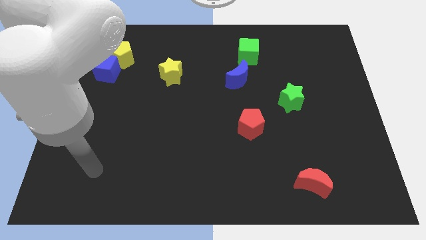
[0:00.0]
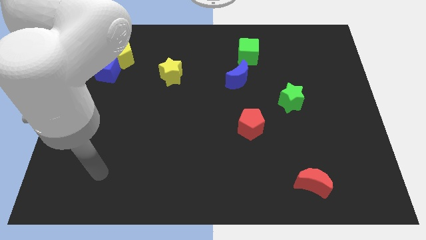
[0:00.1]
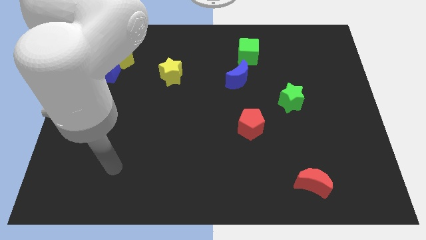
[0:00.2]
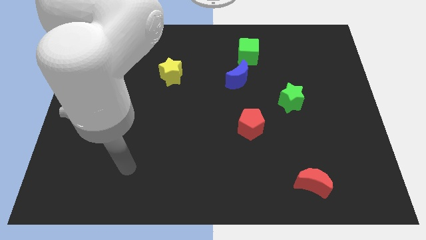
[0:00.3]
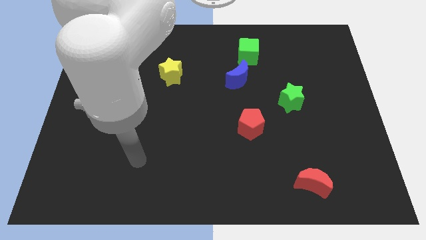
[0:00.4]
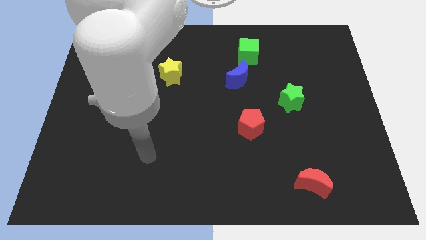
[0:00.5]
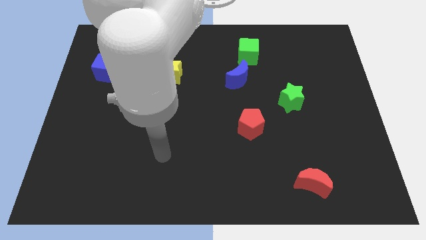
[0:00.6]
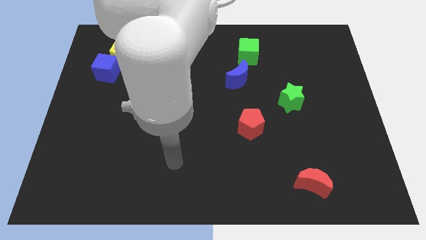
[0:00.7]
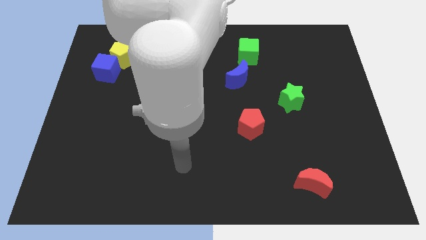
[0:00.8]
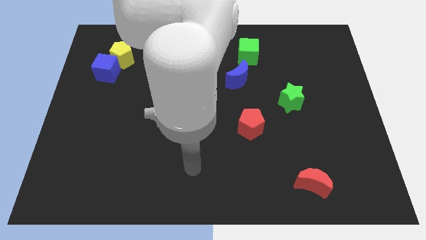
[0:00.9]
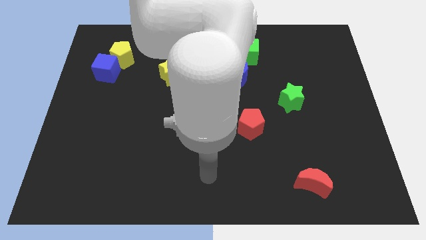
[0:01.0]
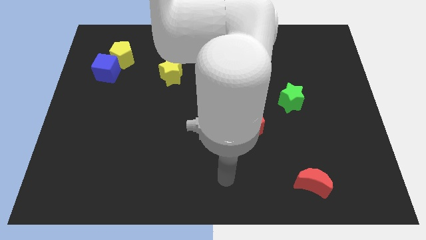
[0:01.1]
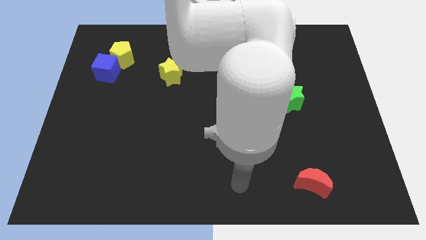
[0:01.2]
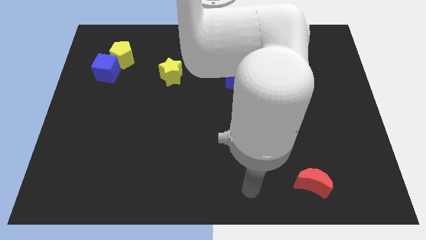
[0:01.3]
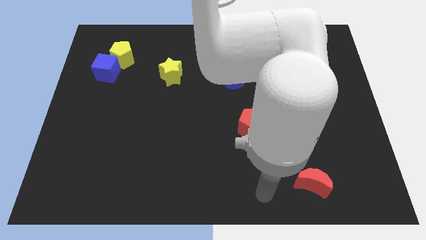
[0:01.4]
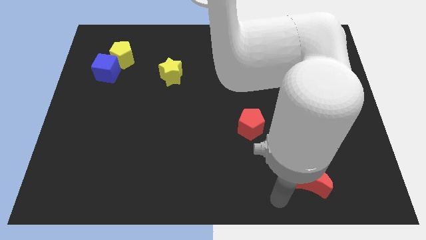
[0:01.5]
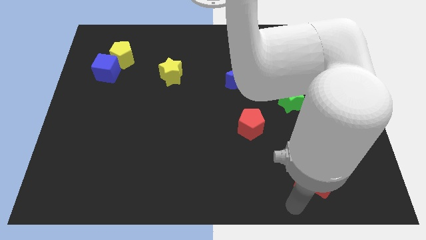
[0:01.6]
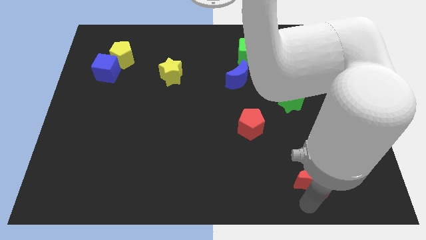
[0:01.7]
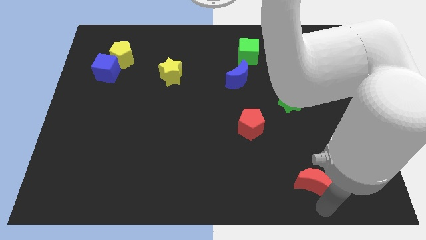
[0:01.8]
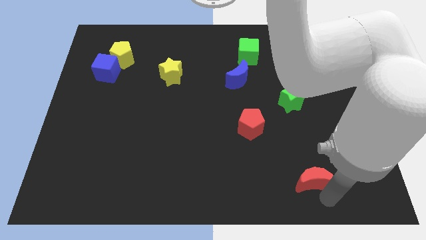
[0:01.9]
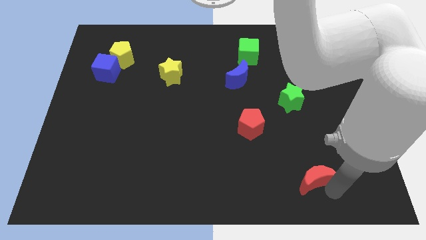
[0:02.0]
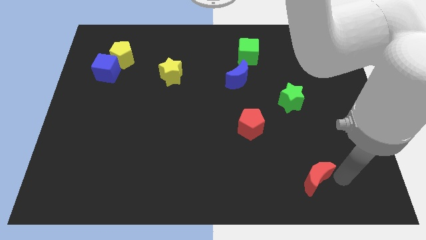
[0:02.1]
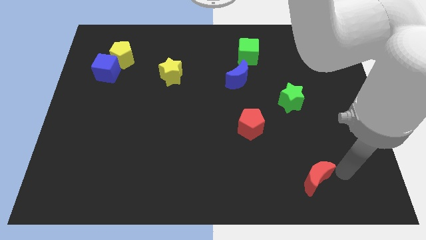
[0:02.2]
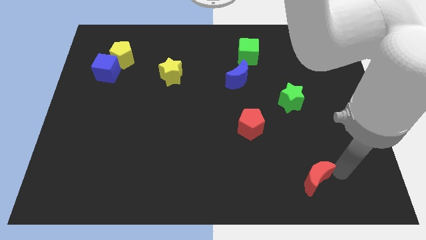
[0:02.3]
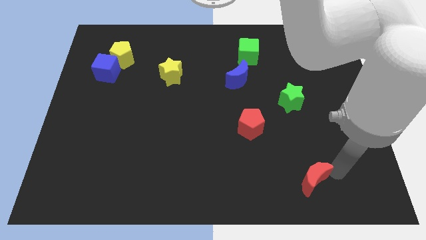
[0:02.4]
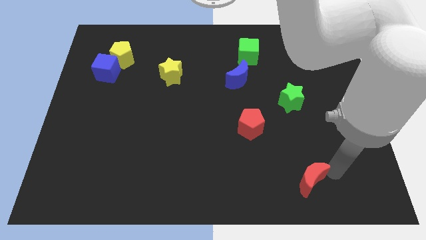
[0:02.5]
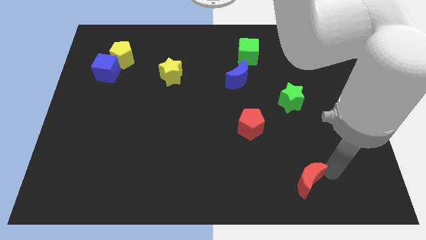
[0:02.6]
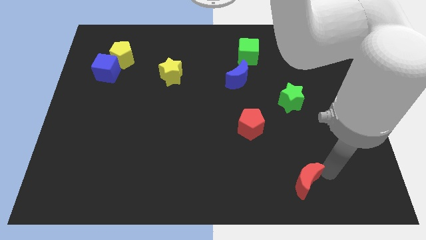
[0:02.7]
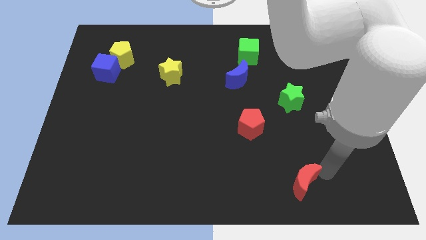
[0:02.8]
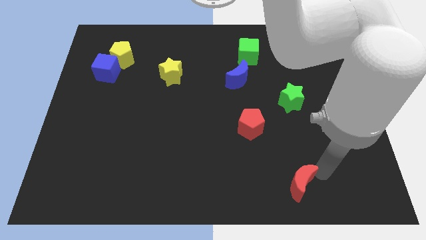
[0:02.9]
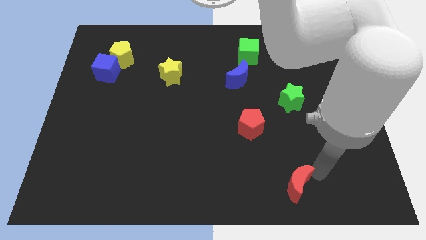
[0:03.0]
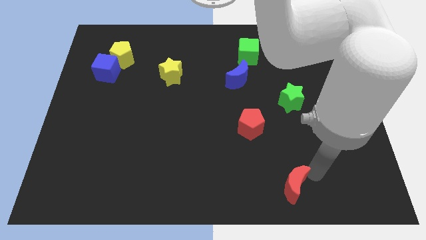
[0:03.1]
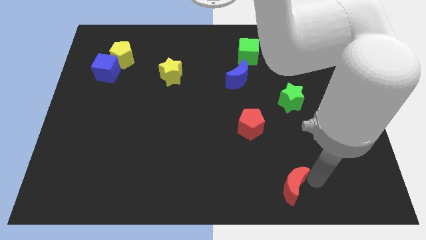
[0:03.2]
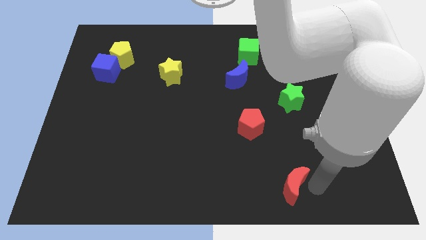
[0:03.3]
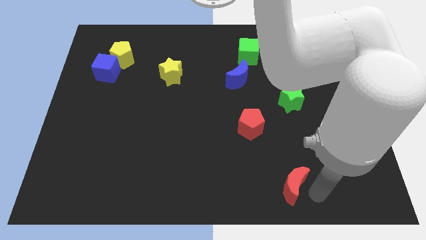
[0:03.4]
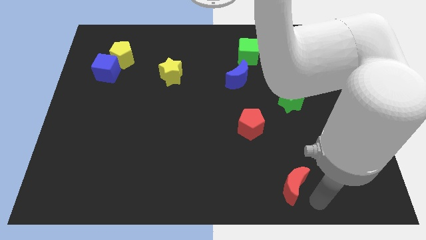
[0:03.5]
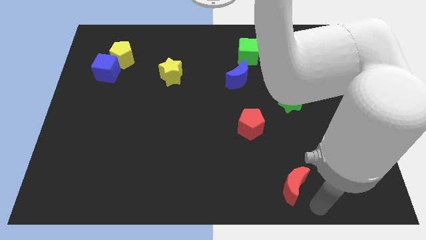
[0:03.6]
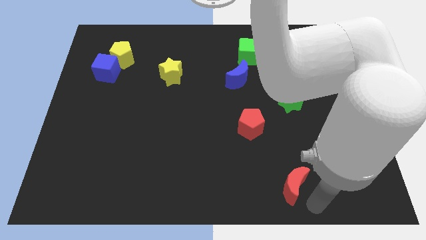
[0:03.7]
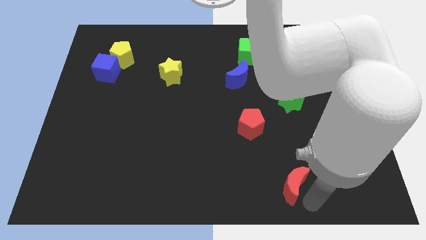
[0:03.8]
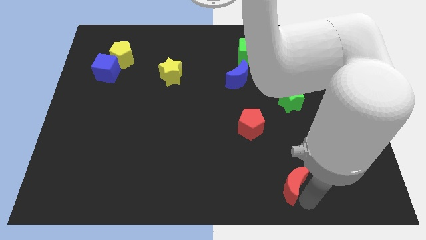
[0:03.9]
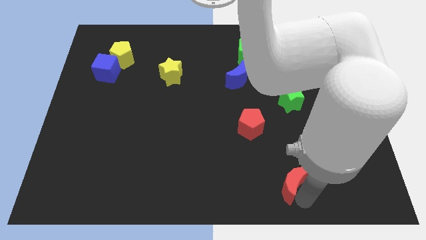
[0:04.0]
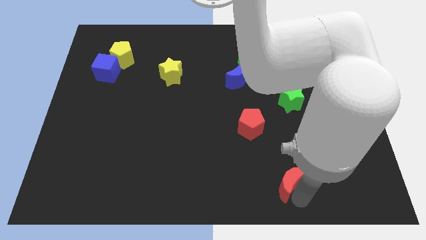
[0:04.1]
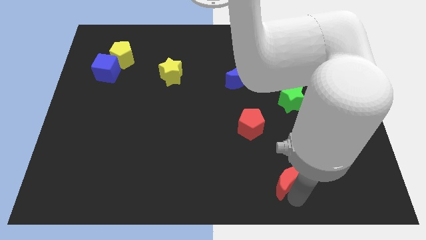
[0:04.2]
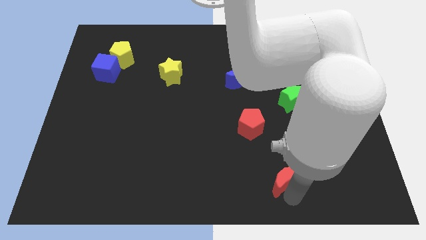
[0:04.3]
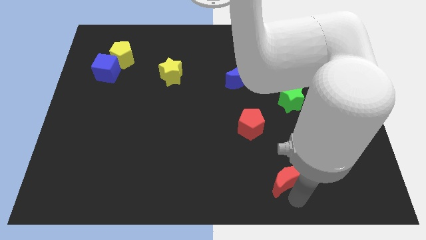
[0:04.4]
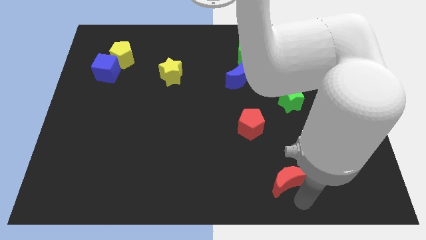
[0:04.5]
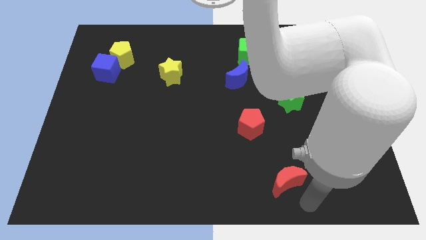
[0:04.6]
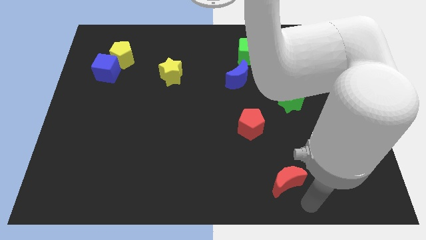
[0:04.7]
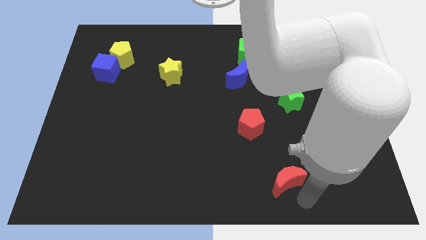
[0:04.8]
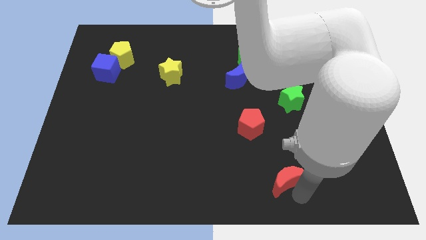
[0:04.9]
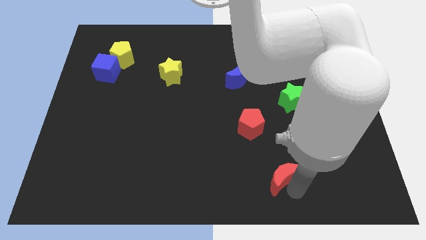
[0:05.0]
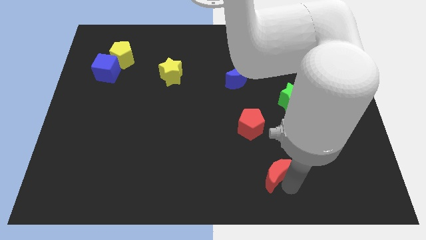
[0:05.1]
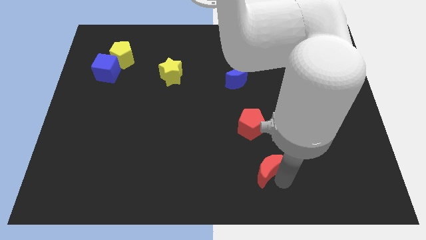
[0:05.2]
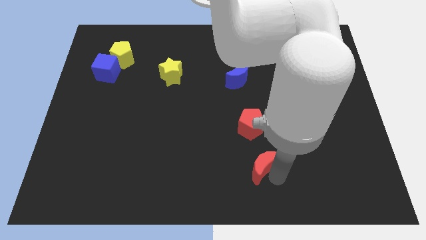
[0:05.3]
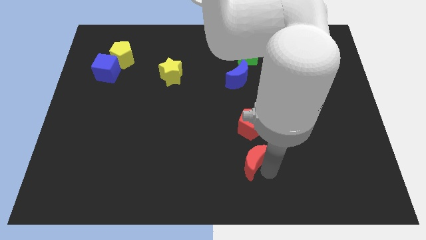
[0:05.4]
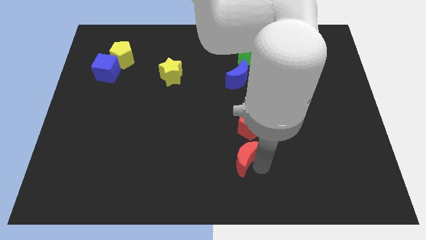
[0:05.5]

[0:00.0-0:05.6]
slide the red moon to the bottom left side of the red pentagon

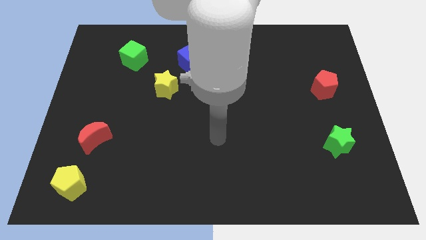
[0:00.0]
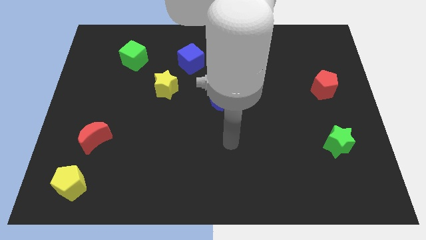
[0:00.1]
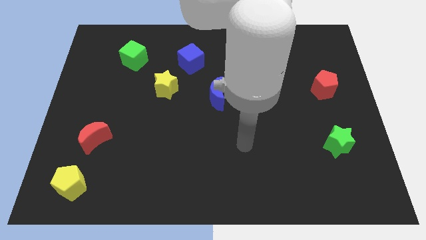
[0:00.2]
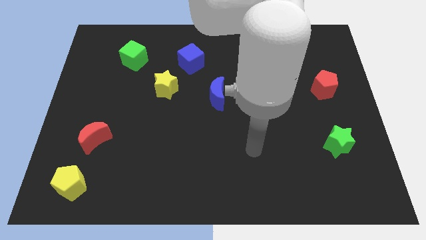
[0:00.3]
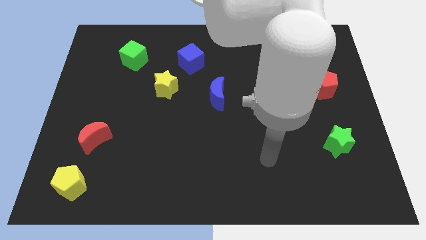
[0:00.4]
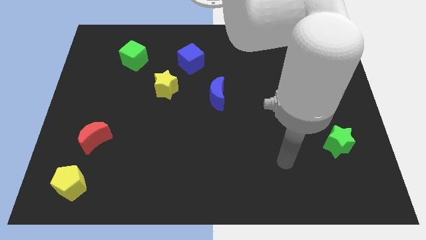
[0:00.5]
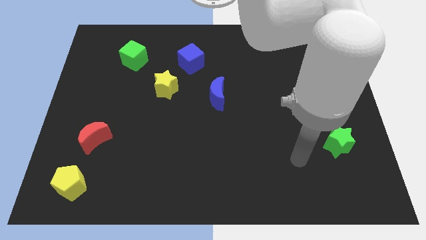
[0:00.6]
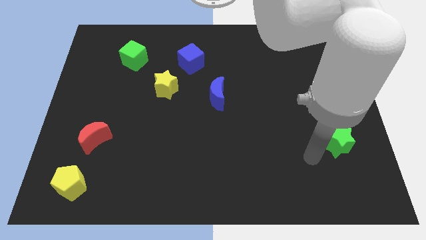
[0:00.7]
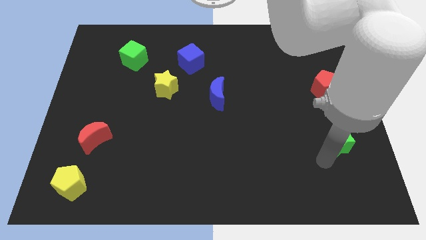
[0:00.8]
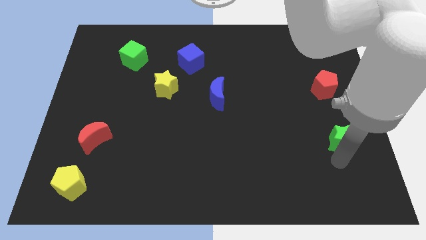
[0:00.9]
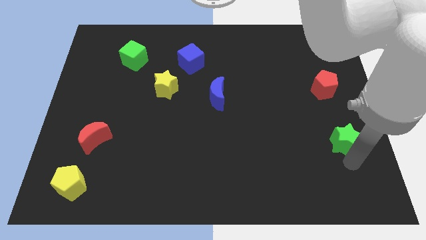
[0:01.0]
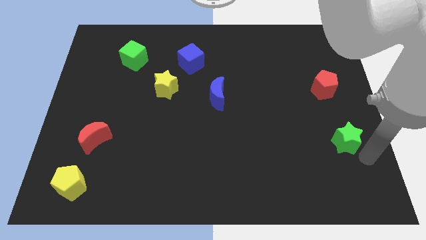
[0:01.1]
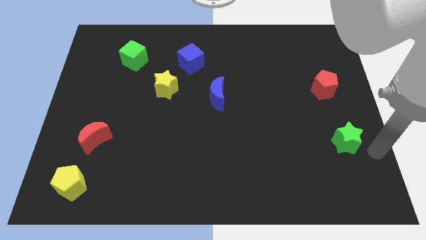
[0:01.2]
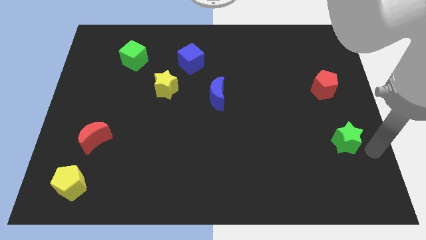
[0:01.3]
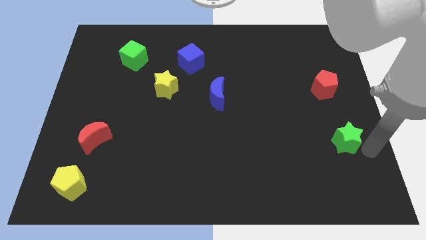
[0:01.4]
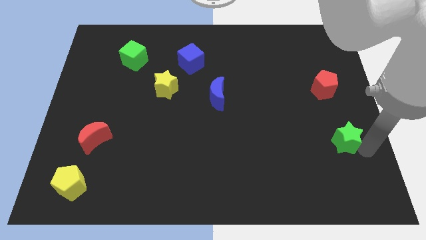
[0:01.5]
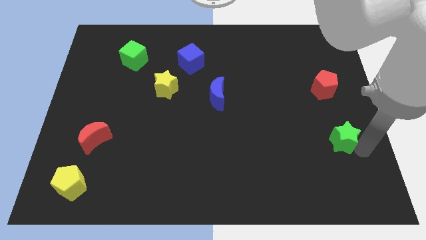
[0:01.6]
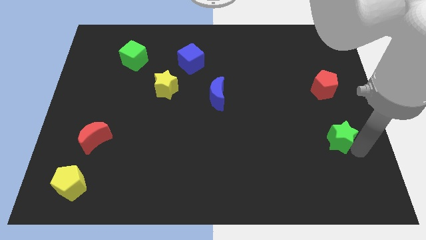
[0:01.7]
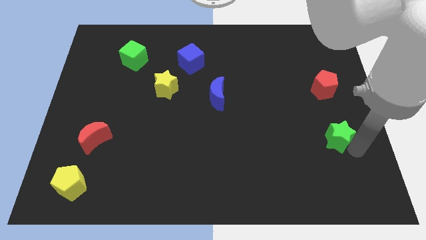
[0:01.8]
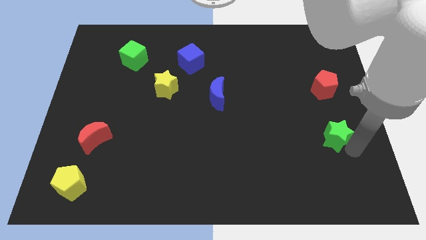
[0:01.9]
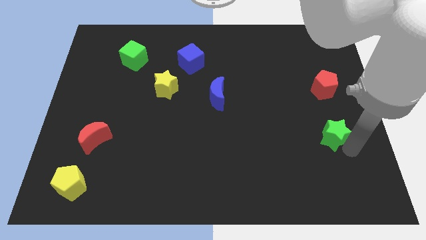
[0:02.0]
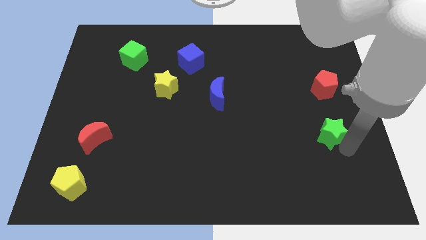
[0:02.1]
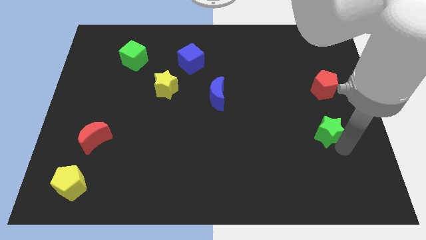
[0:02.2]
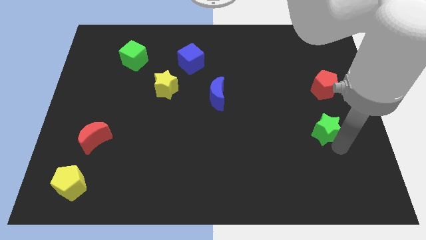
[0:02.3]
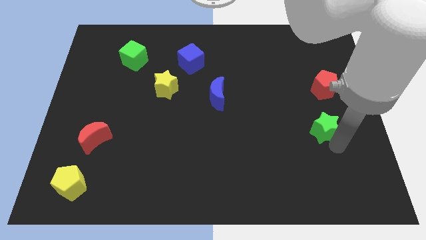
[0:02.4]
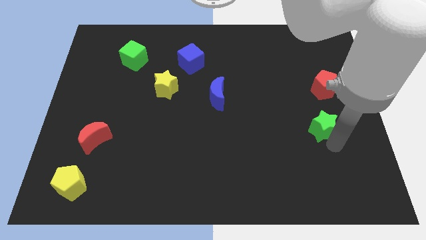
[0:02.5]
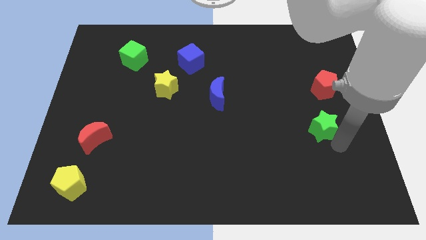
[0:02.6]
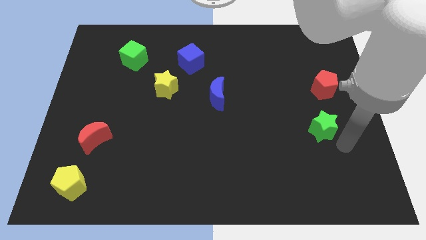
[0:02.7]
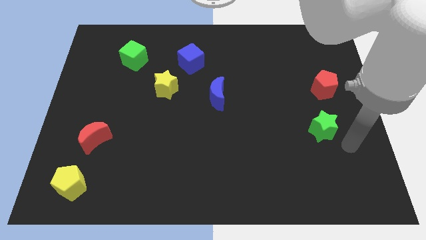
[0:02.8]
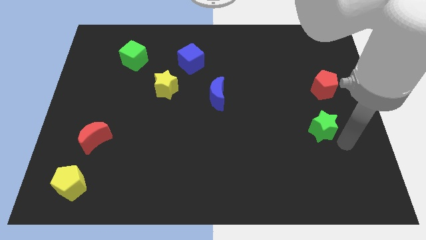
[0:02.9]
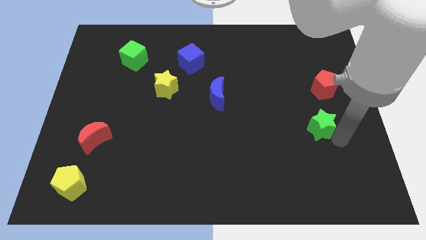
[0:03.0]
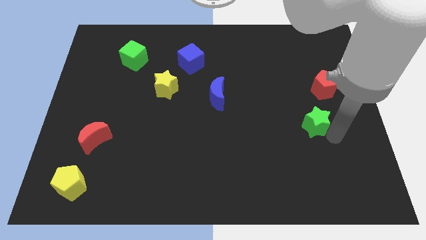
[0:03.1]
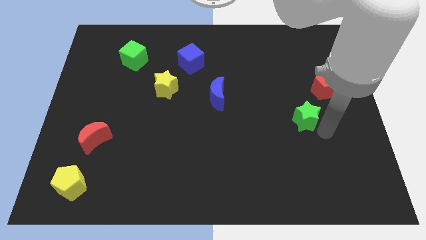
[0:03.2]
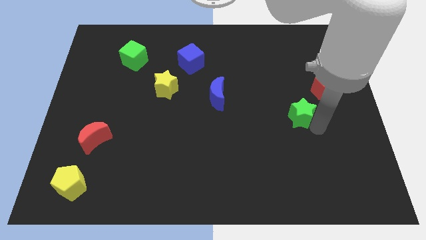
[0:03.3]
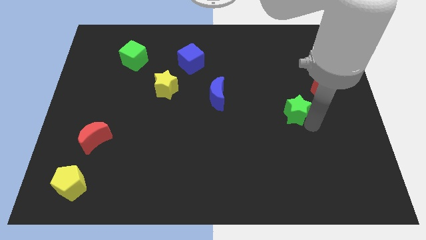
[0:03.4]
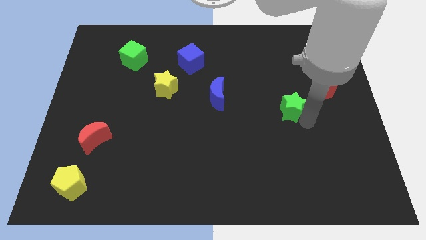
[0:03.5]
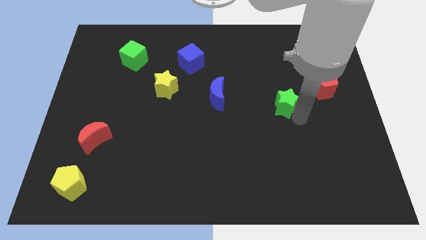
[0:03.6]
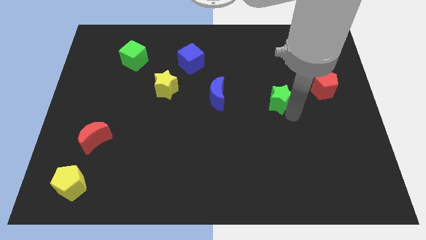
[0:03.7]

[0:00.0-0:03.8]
move the green star to the left side of the red pentagon
